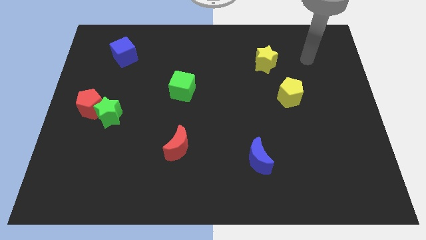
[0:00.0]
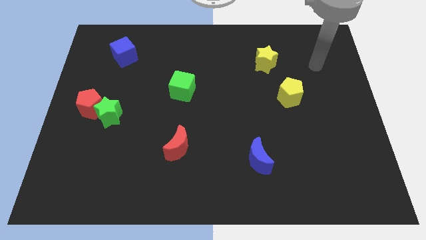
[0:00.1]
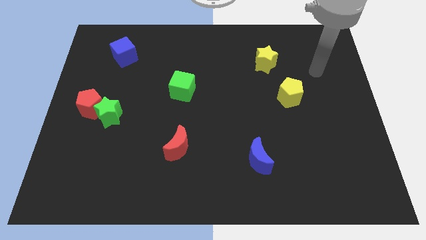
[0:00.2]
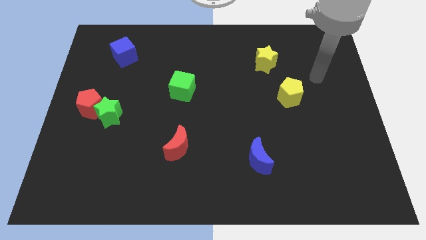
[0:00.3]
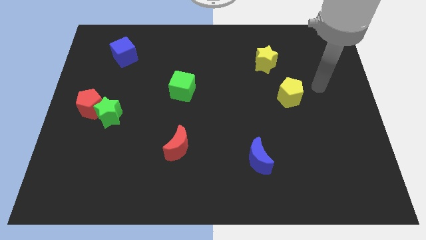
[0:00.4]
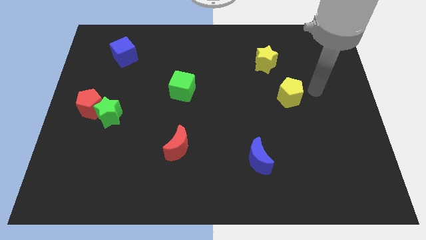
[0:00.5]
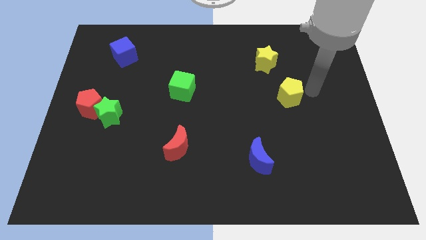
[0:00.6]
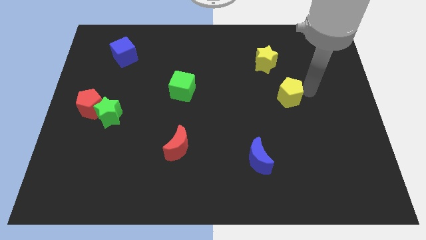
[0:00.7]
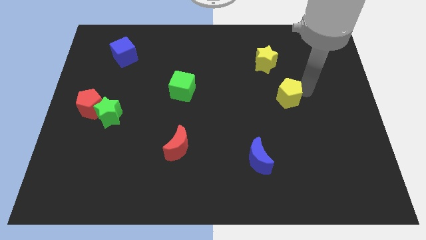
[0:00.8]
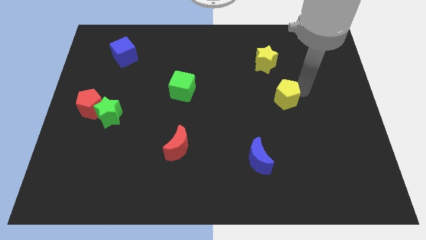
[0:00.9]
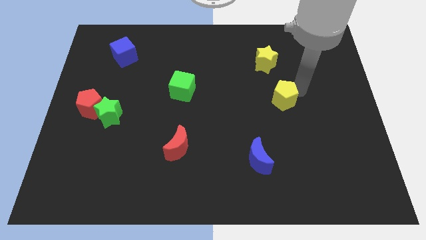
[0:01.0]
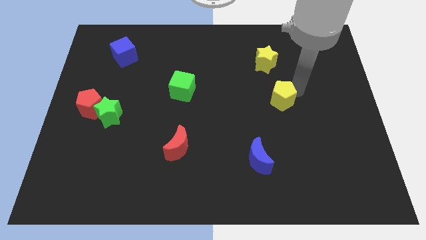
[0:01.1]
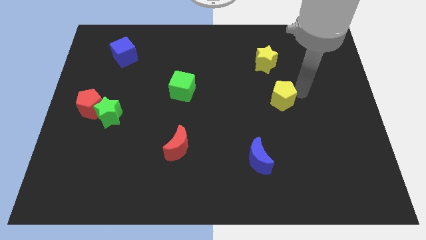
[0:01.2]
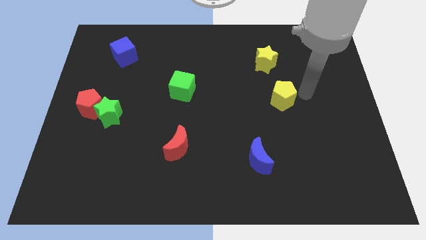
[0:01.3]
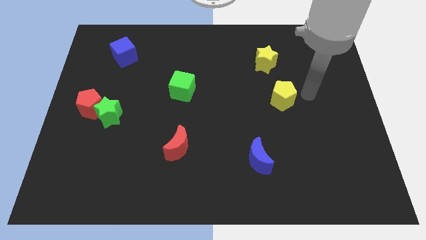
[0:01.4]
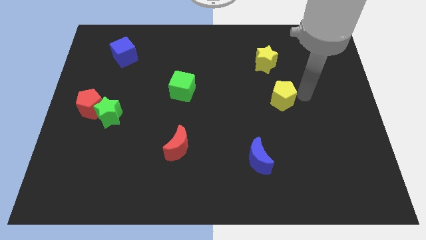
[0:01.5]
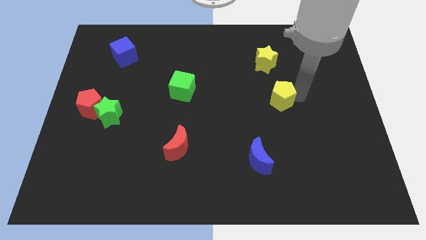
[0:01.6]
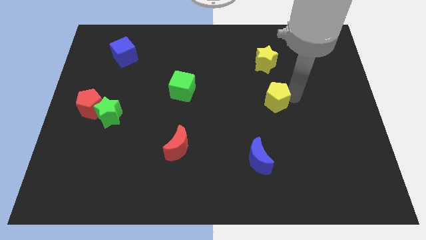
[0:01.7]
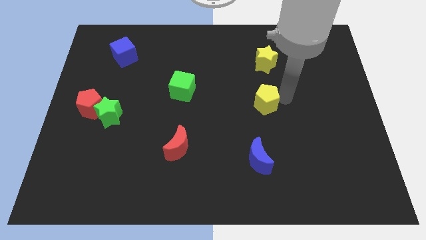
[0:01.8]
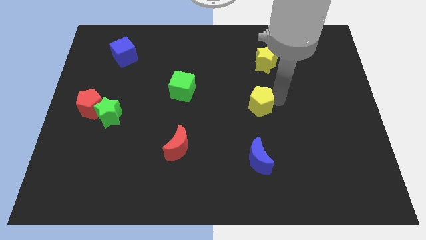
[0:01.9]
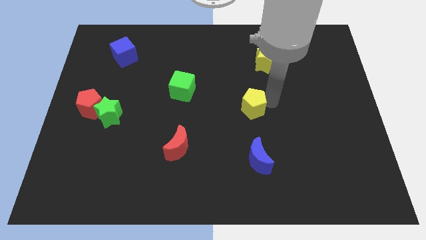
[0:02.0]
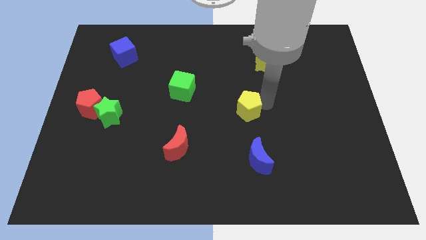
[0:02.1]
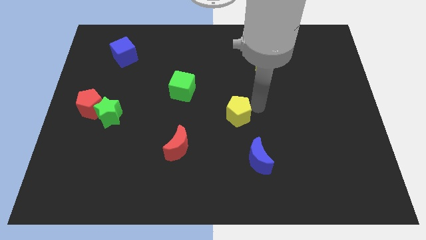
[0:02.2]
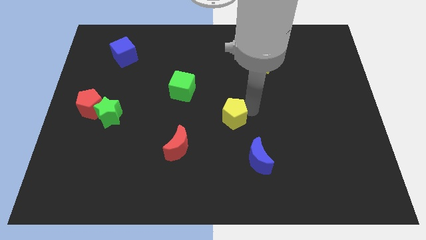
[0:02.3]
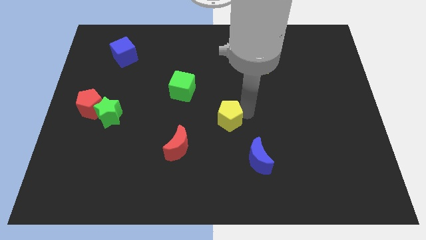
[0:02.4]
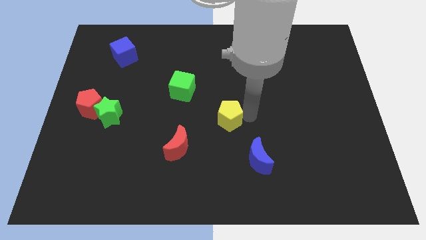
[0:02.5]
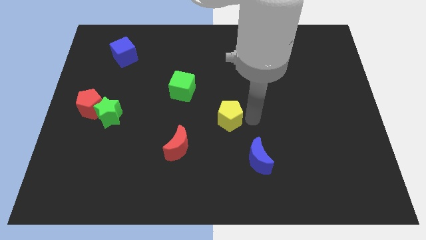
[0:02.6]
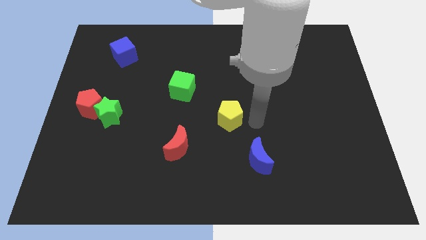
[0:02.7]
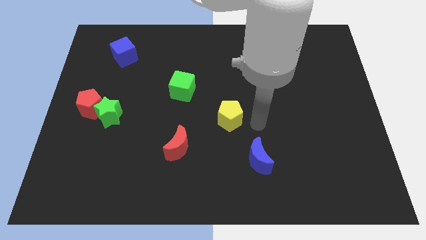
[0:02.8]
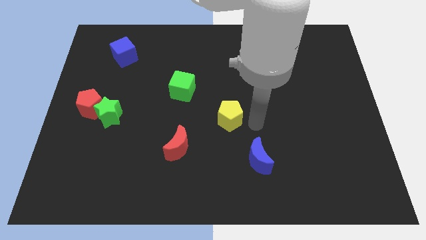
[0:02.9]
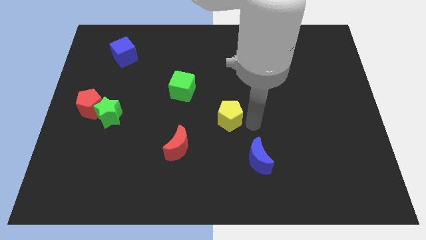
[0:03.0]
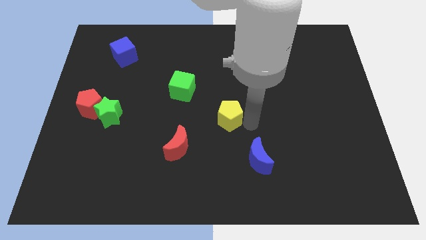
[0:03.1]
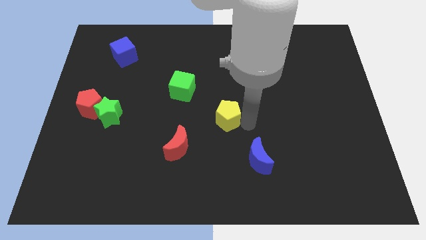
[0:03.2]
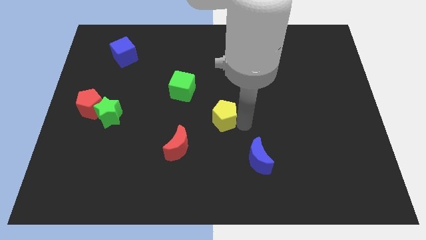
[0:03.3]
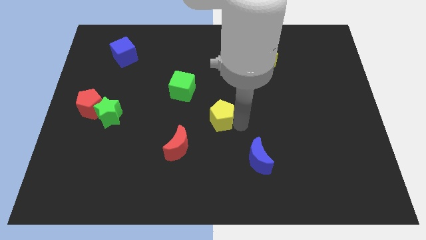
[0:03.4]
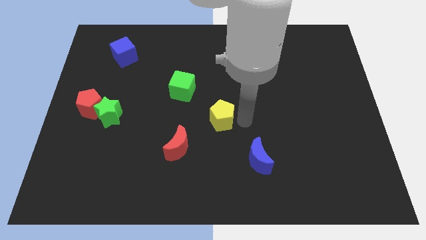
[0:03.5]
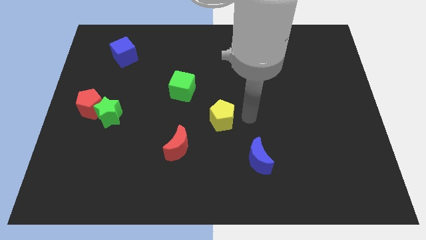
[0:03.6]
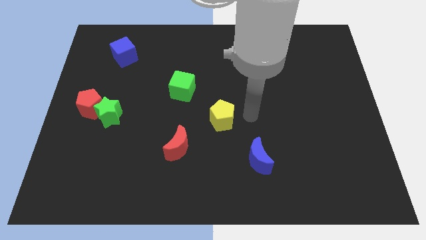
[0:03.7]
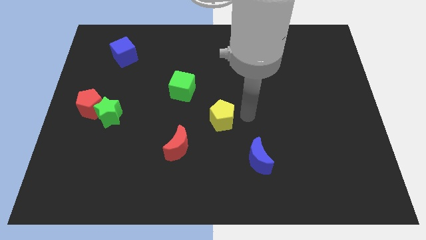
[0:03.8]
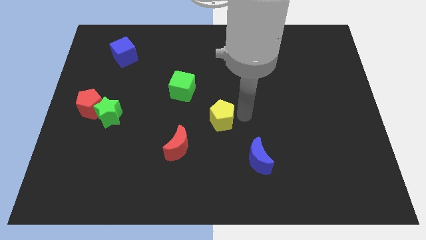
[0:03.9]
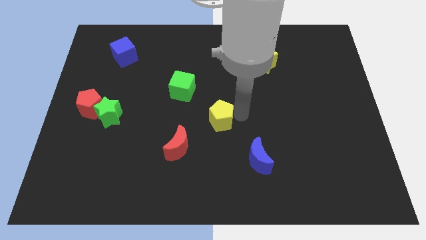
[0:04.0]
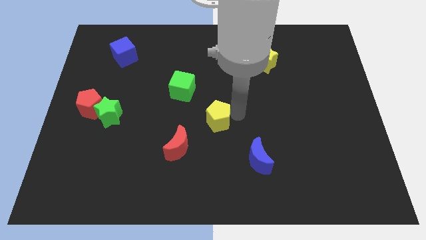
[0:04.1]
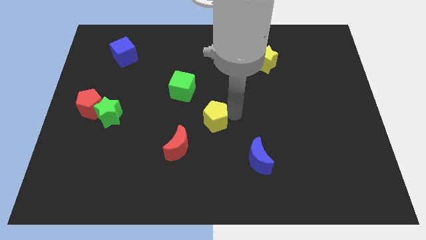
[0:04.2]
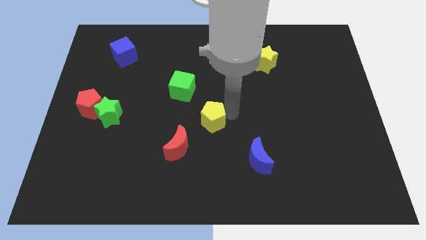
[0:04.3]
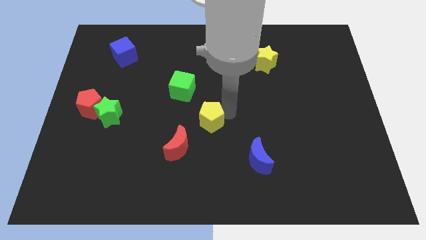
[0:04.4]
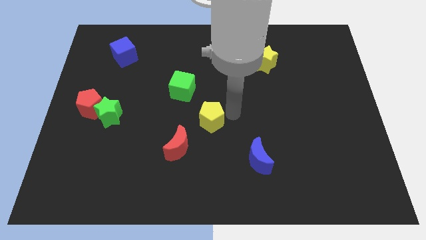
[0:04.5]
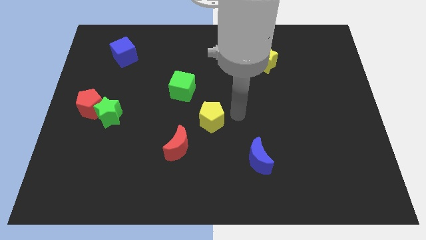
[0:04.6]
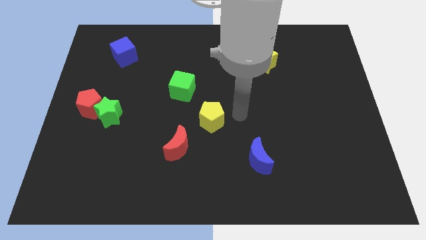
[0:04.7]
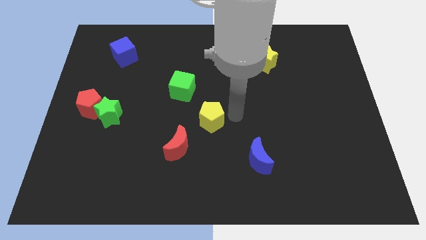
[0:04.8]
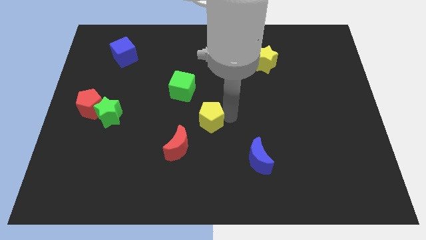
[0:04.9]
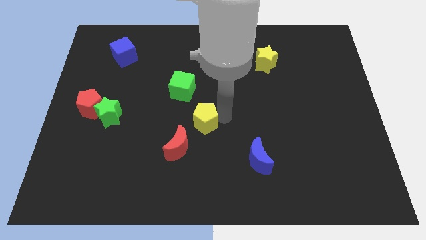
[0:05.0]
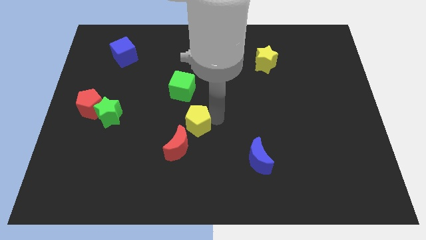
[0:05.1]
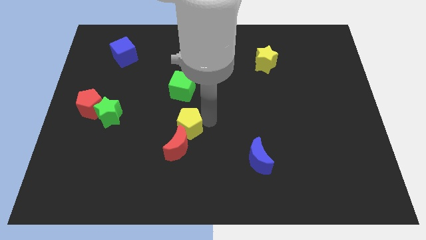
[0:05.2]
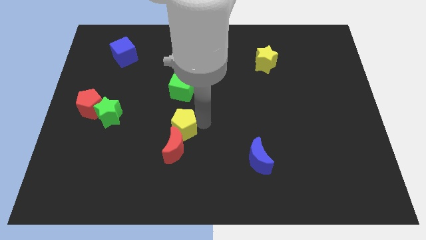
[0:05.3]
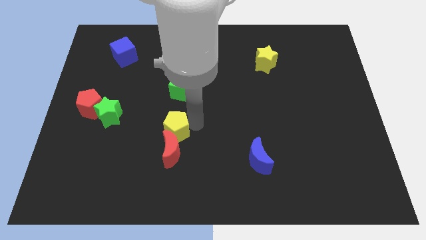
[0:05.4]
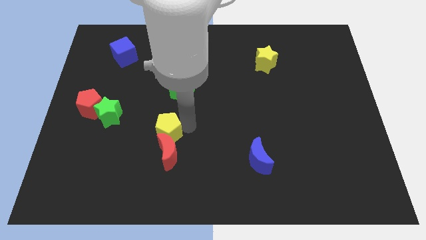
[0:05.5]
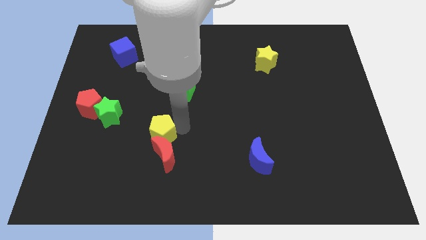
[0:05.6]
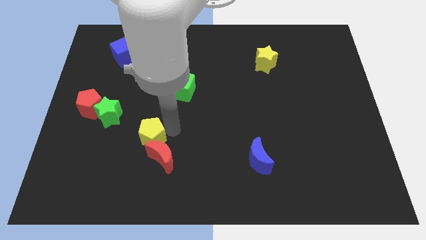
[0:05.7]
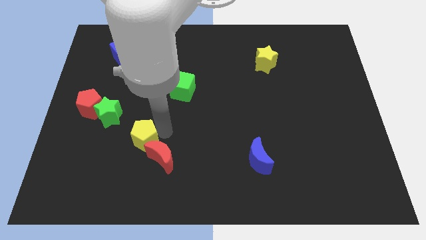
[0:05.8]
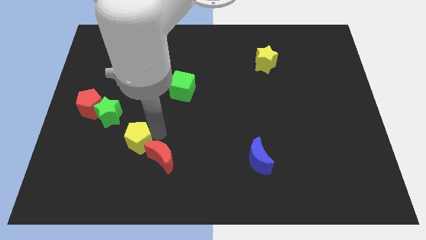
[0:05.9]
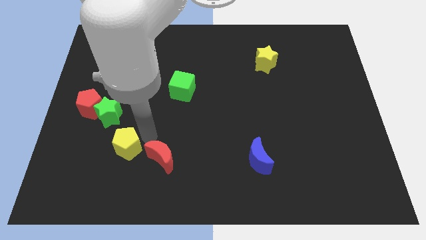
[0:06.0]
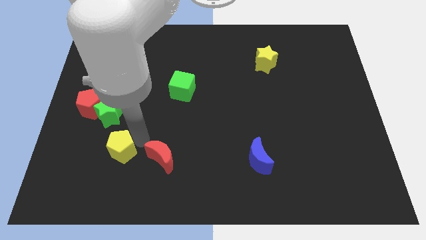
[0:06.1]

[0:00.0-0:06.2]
move the yellow pentagon to the bottom of the green star

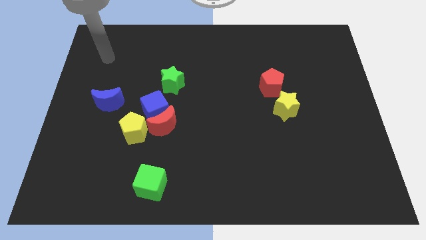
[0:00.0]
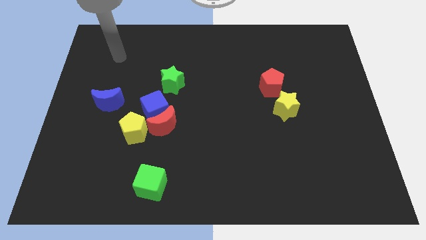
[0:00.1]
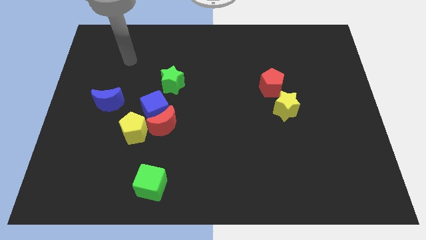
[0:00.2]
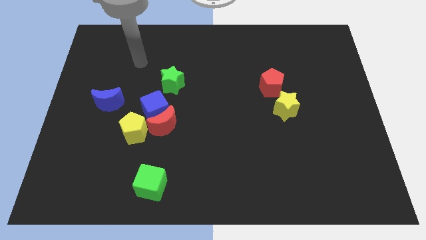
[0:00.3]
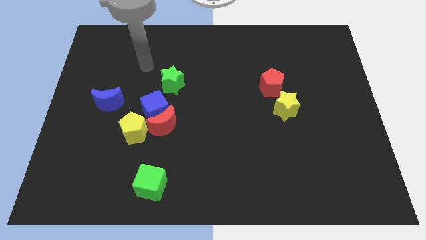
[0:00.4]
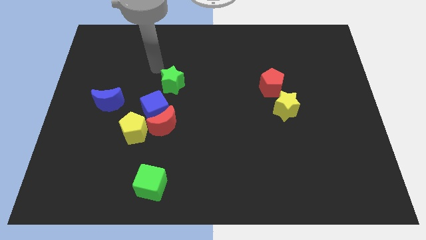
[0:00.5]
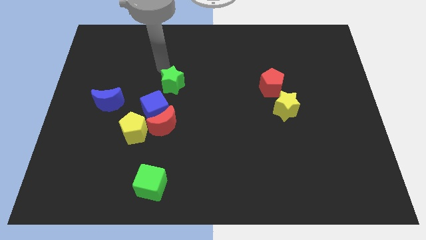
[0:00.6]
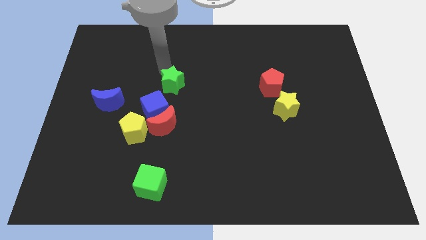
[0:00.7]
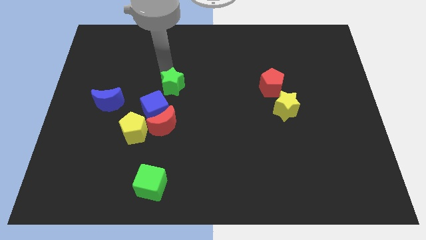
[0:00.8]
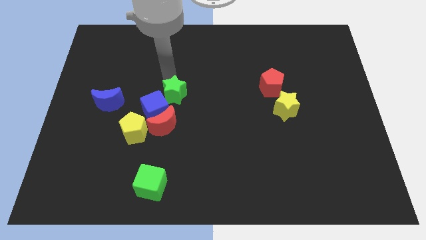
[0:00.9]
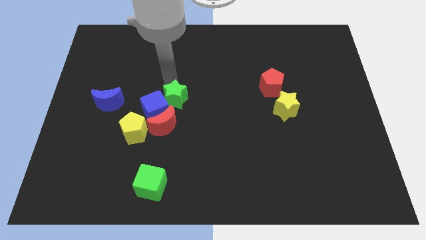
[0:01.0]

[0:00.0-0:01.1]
push the green star to the top right of the red moon
